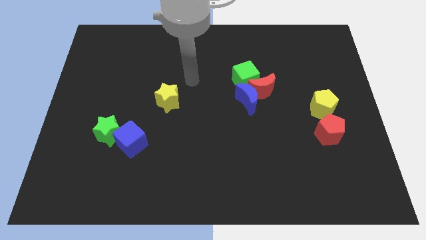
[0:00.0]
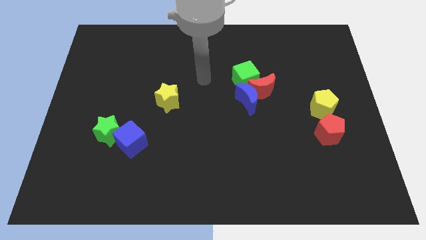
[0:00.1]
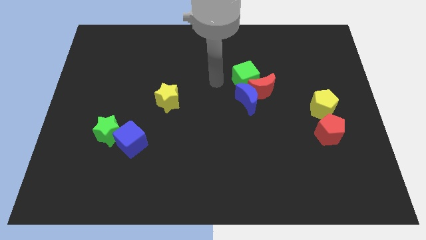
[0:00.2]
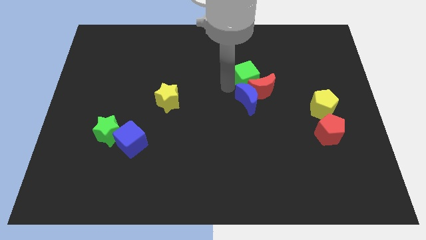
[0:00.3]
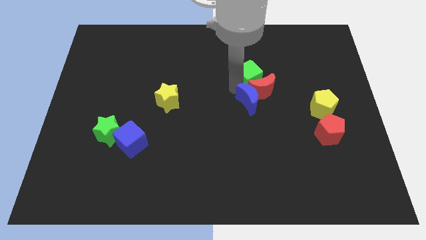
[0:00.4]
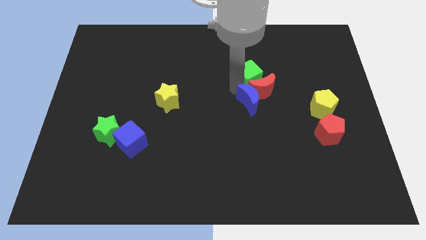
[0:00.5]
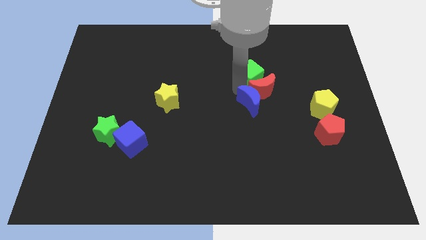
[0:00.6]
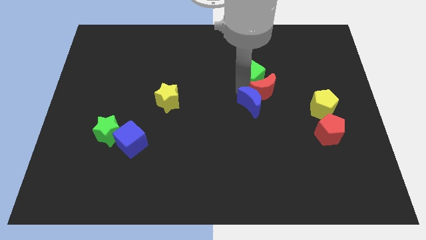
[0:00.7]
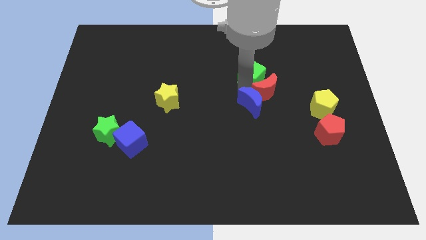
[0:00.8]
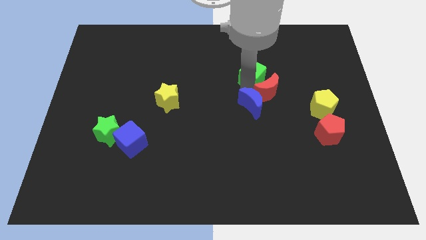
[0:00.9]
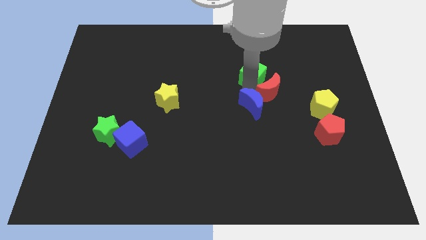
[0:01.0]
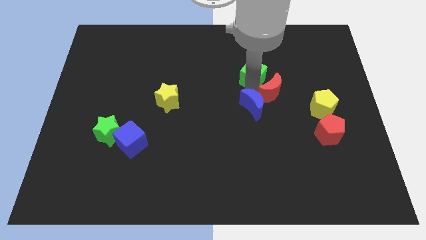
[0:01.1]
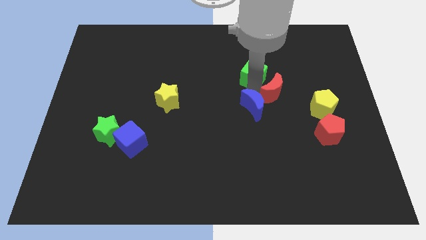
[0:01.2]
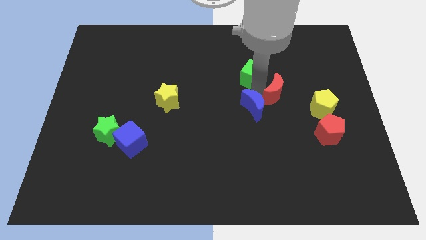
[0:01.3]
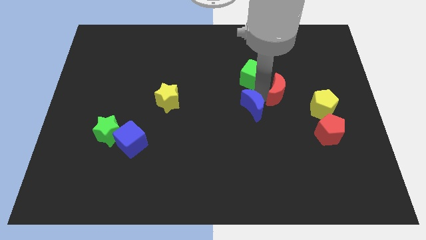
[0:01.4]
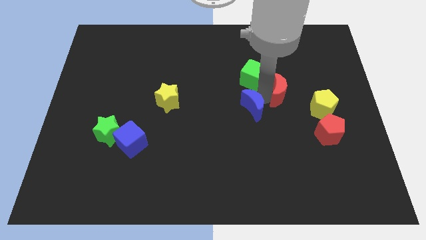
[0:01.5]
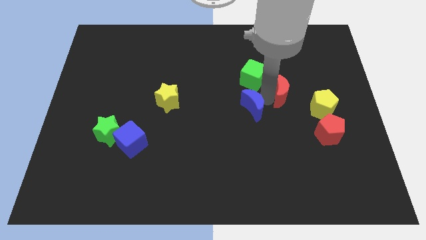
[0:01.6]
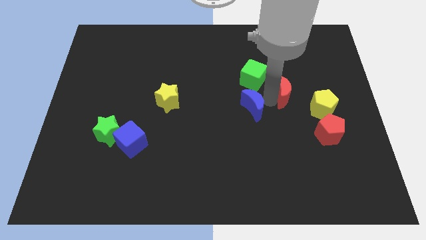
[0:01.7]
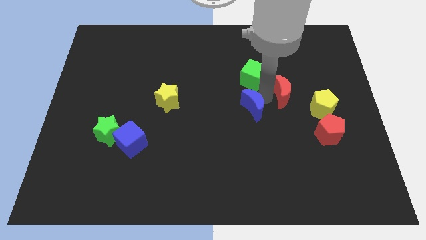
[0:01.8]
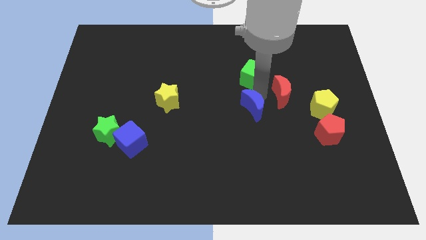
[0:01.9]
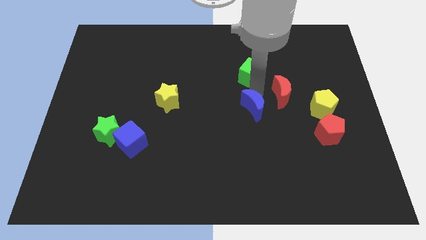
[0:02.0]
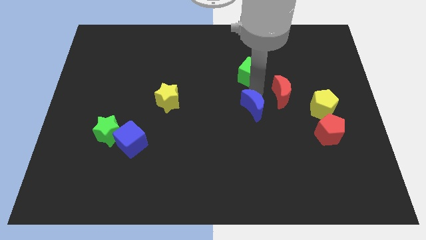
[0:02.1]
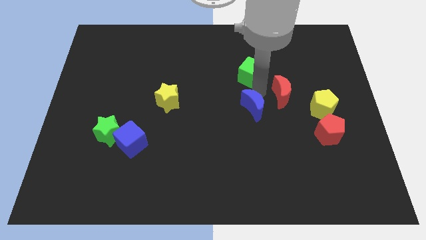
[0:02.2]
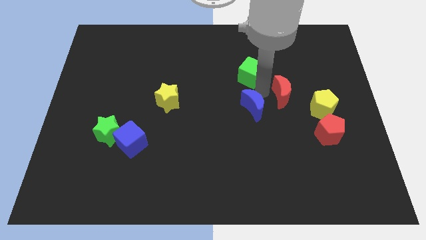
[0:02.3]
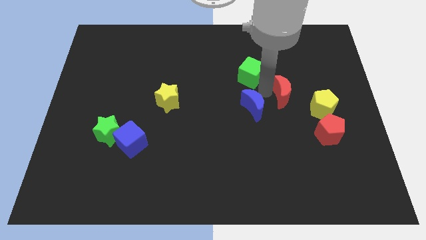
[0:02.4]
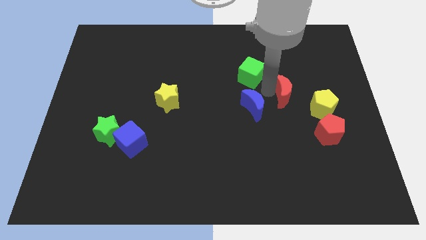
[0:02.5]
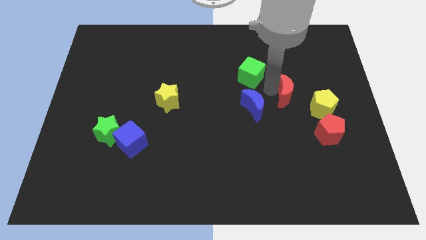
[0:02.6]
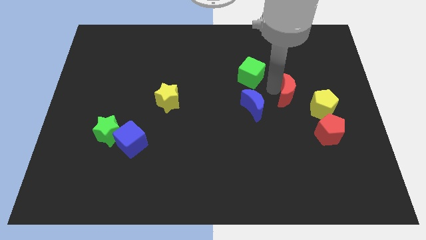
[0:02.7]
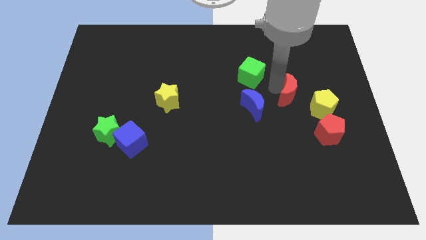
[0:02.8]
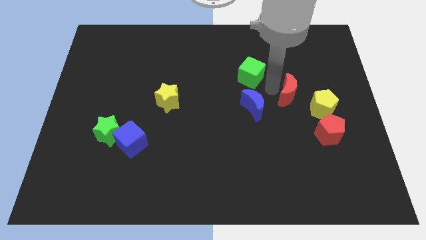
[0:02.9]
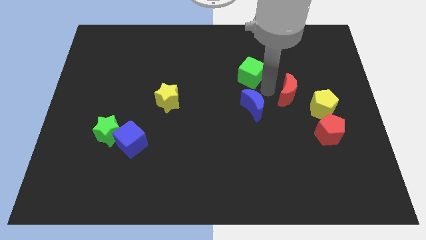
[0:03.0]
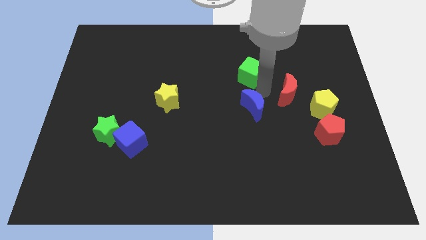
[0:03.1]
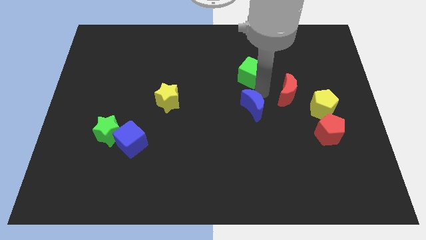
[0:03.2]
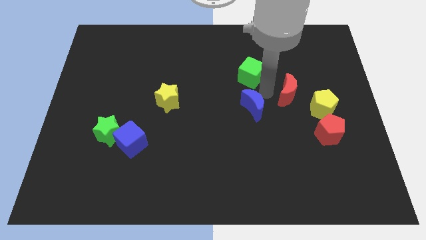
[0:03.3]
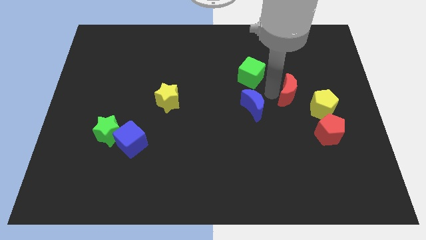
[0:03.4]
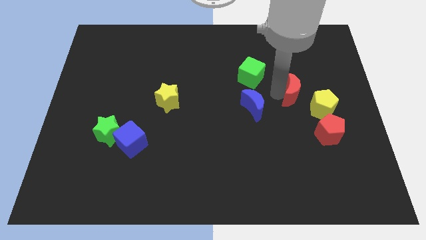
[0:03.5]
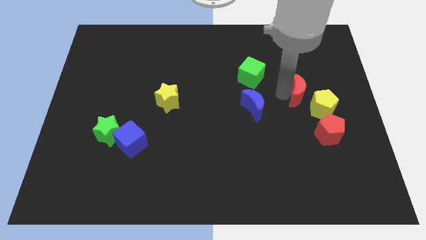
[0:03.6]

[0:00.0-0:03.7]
move the red moon away from the blue moon and green cube

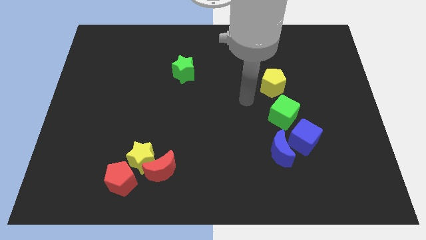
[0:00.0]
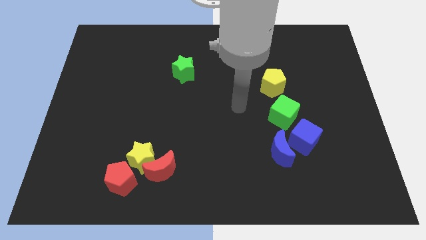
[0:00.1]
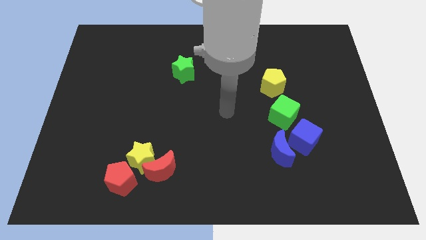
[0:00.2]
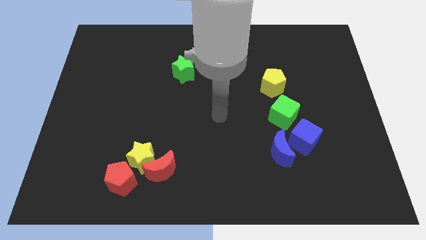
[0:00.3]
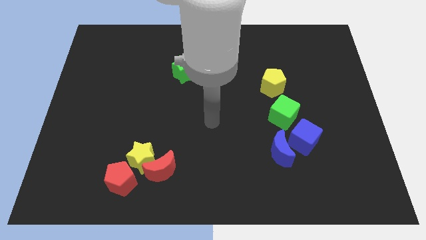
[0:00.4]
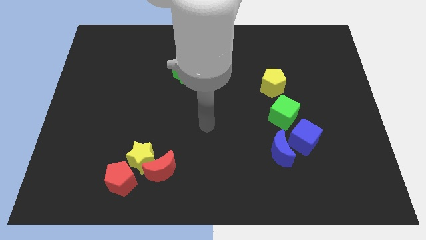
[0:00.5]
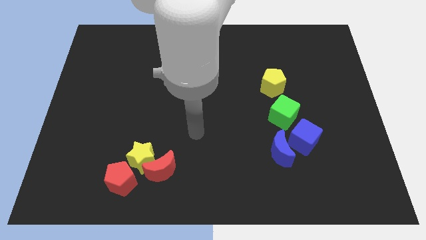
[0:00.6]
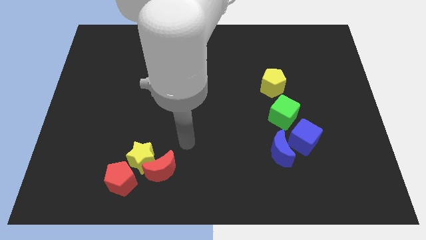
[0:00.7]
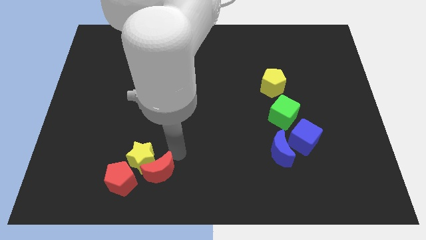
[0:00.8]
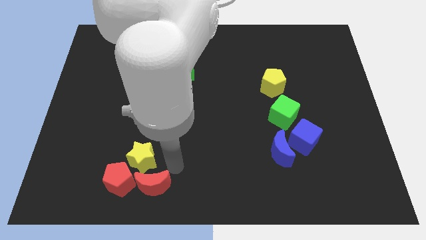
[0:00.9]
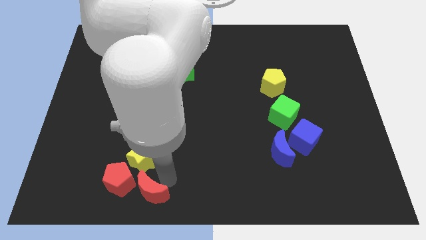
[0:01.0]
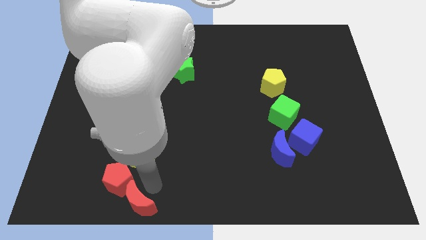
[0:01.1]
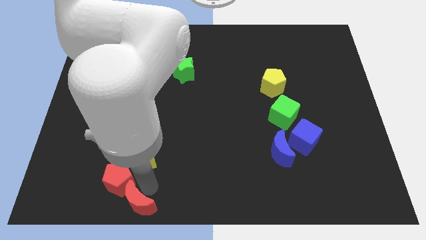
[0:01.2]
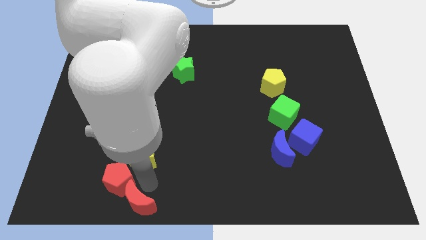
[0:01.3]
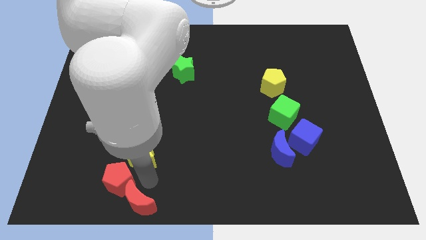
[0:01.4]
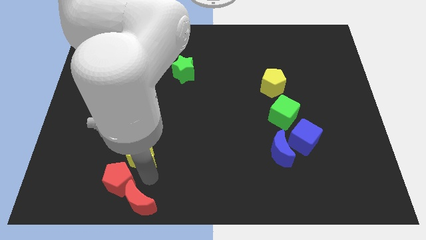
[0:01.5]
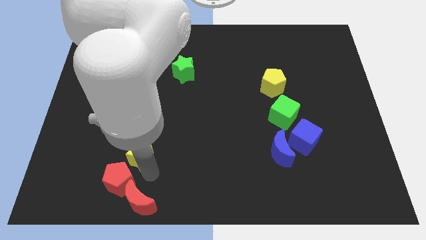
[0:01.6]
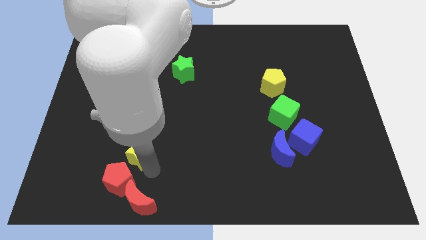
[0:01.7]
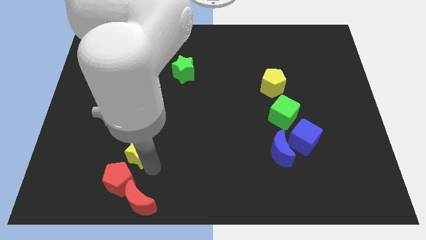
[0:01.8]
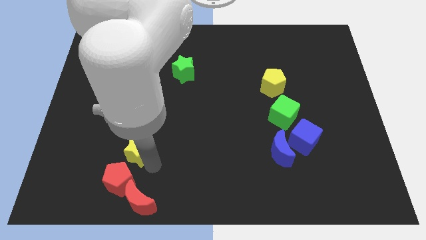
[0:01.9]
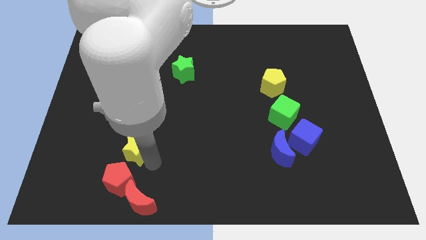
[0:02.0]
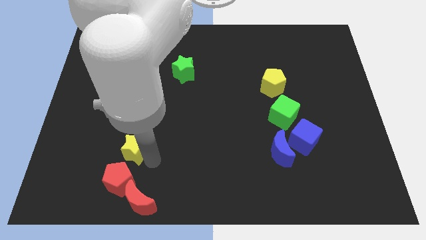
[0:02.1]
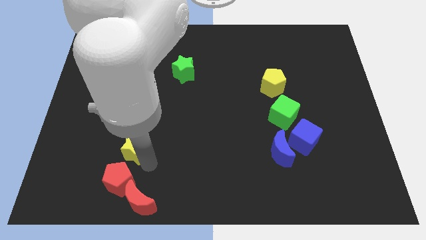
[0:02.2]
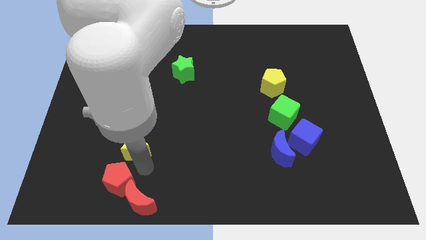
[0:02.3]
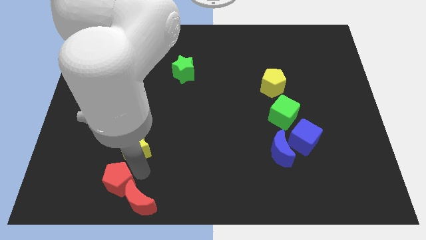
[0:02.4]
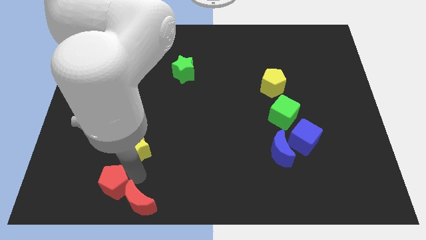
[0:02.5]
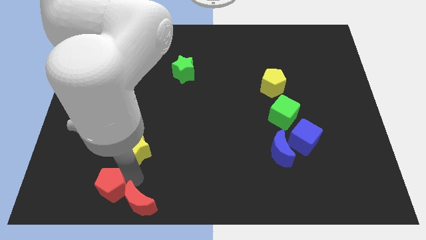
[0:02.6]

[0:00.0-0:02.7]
pull the yellow star apart from the red moon and red pentagon

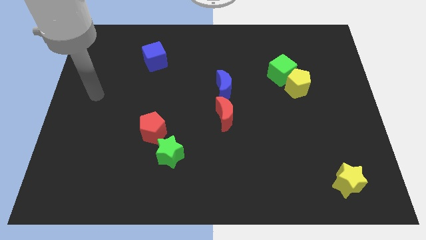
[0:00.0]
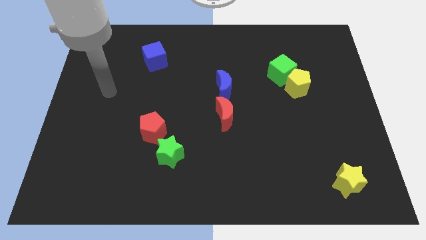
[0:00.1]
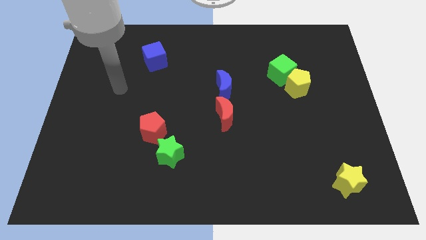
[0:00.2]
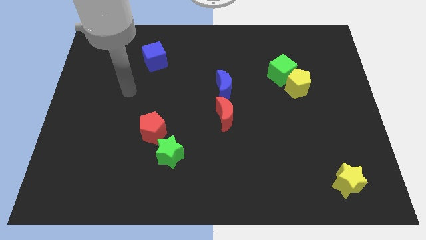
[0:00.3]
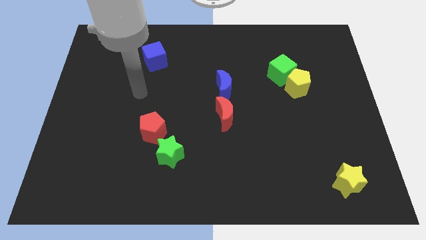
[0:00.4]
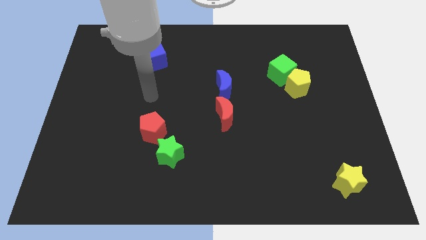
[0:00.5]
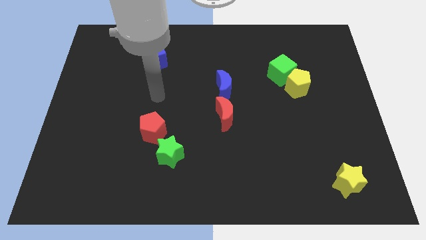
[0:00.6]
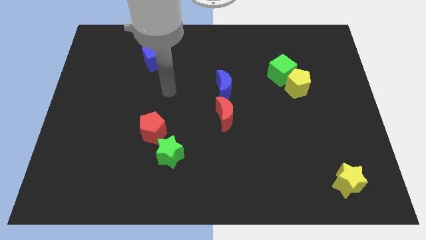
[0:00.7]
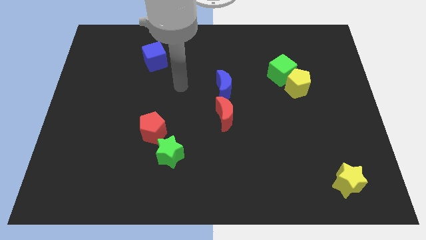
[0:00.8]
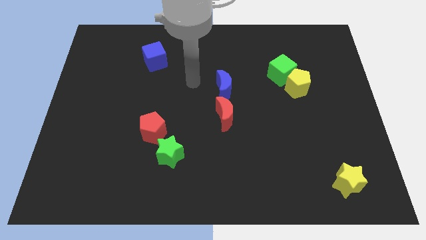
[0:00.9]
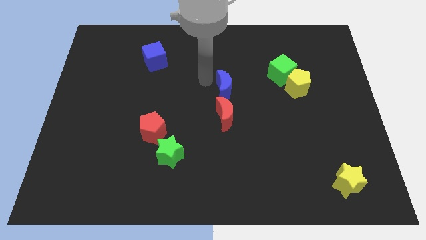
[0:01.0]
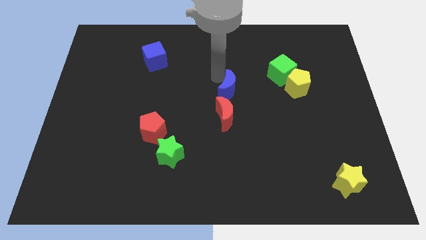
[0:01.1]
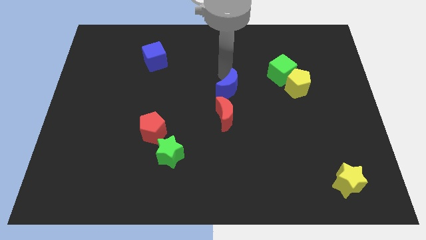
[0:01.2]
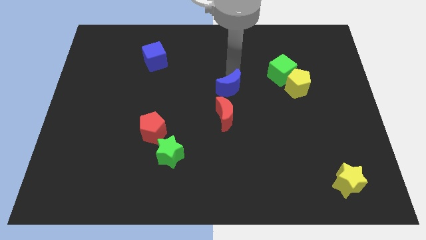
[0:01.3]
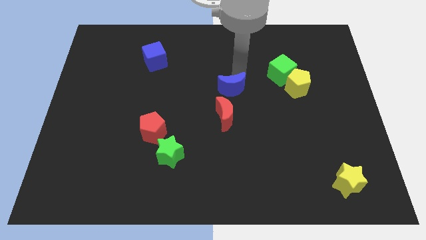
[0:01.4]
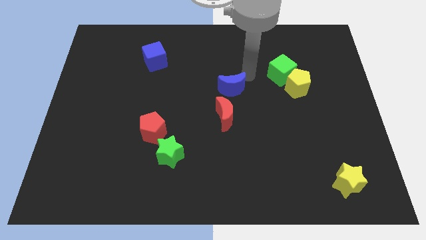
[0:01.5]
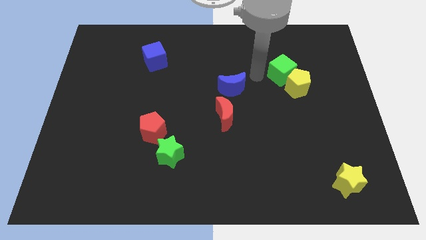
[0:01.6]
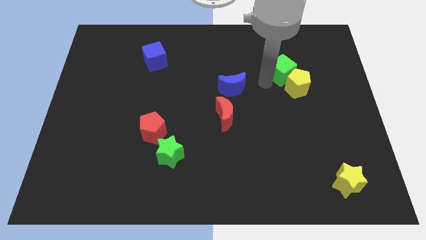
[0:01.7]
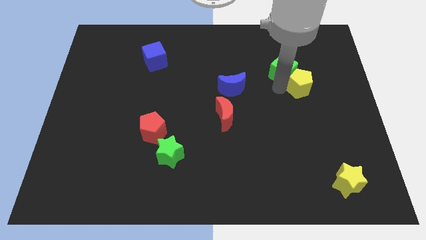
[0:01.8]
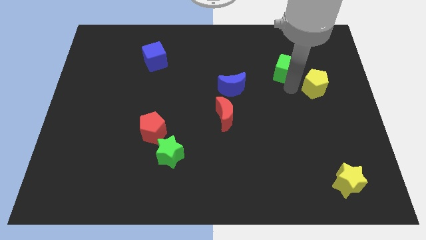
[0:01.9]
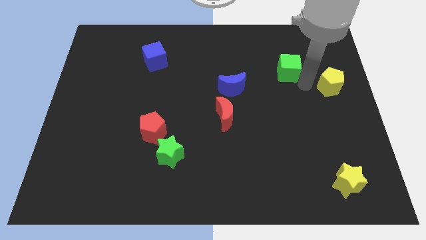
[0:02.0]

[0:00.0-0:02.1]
separate the green cube from the yellow pentagon

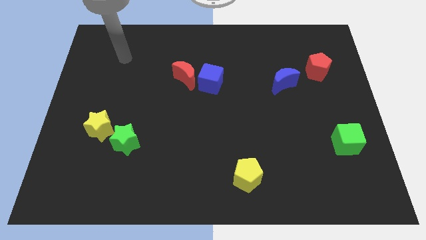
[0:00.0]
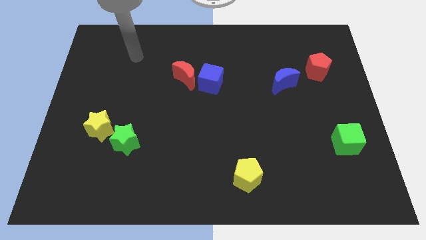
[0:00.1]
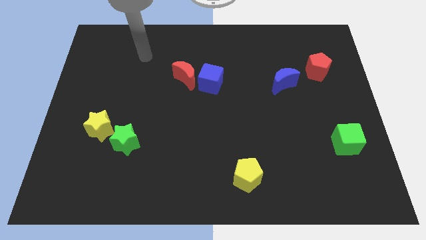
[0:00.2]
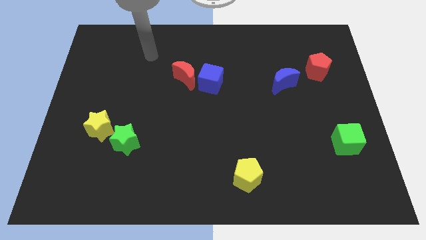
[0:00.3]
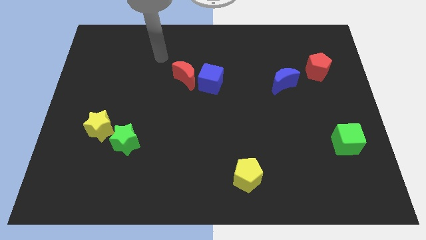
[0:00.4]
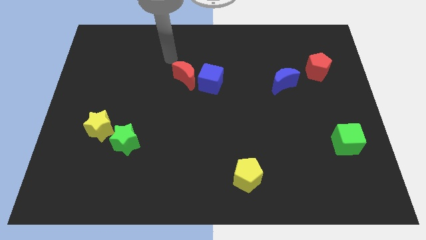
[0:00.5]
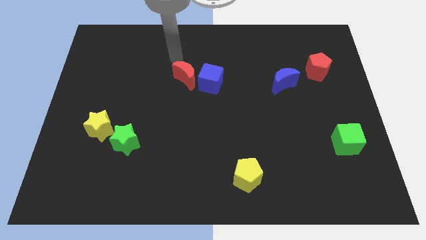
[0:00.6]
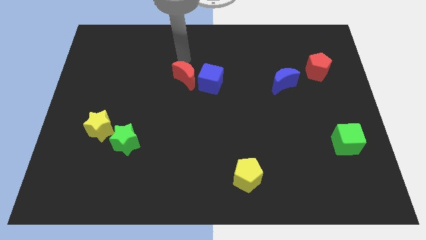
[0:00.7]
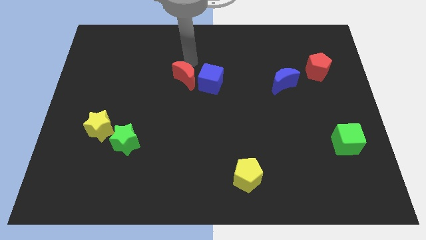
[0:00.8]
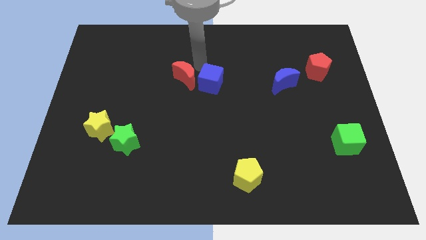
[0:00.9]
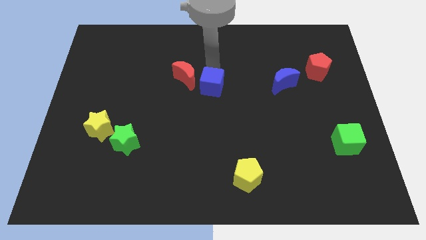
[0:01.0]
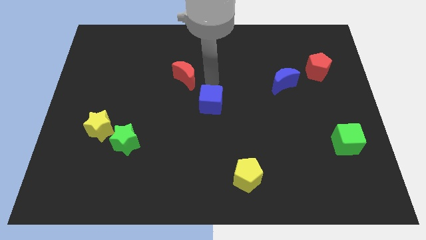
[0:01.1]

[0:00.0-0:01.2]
move the red moon away from the blue cube
